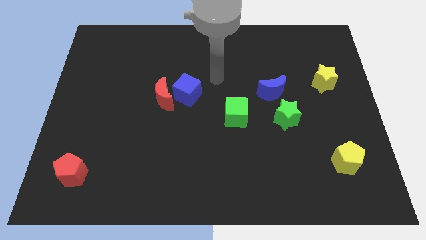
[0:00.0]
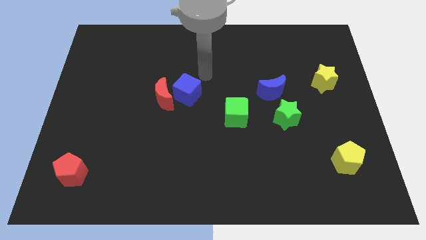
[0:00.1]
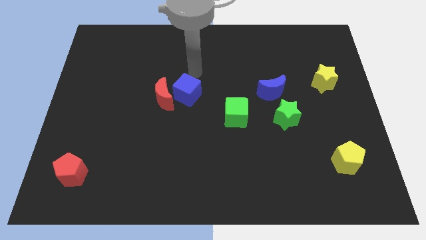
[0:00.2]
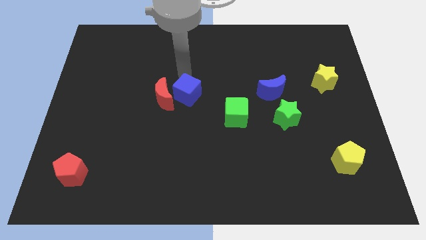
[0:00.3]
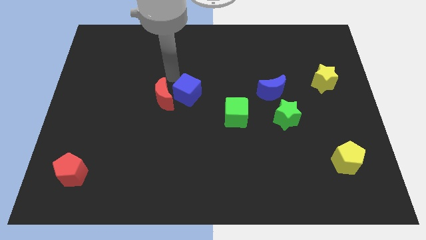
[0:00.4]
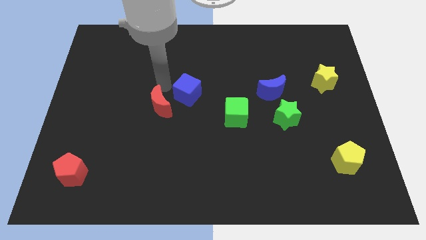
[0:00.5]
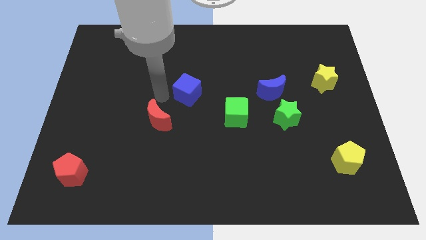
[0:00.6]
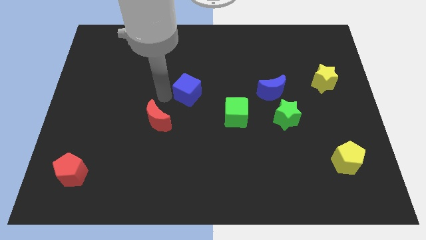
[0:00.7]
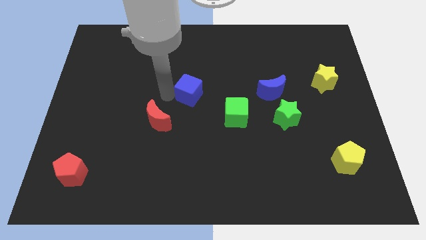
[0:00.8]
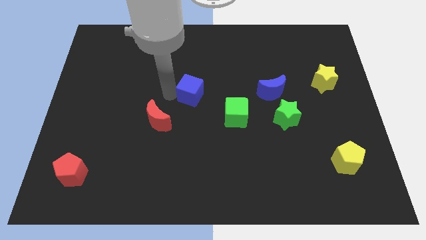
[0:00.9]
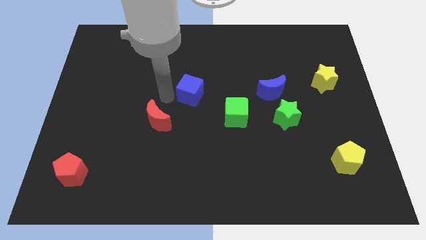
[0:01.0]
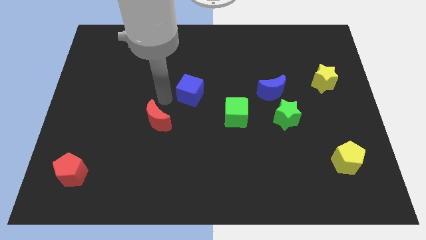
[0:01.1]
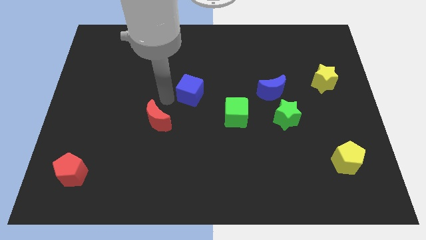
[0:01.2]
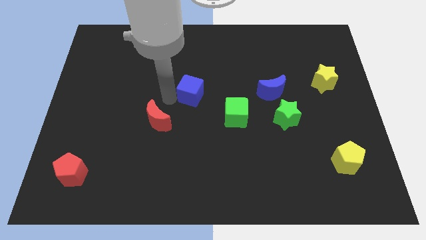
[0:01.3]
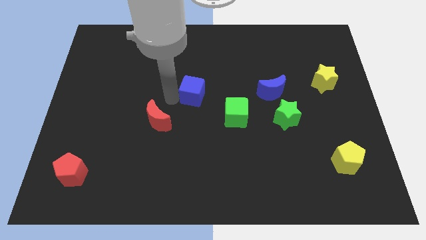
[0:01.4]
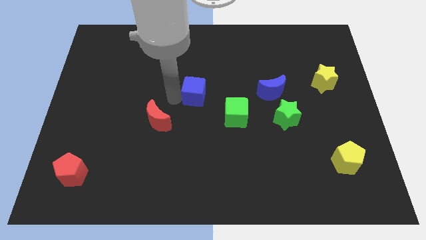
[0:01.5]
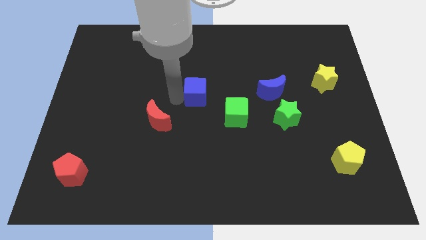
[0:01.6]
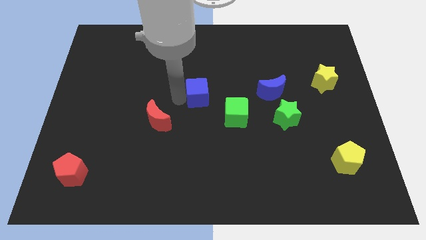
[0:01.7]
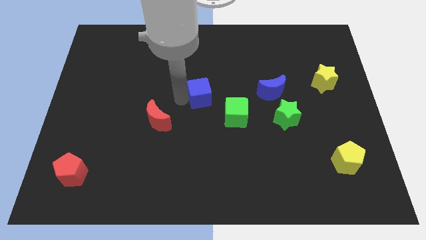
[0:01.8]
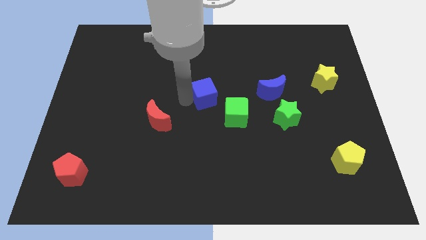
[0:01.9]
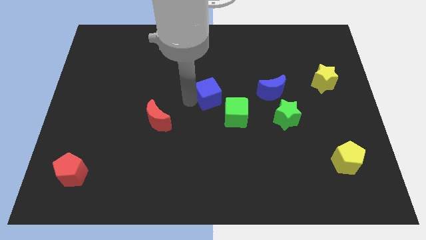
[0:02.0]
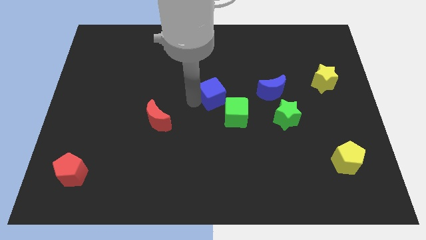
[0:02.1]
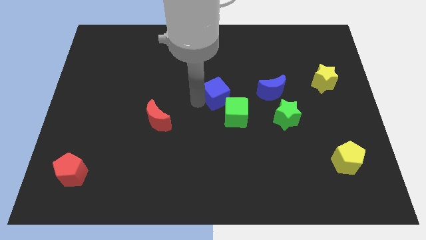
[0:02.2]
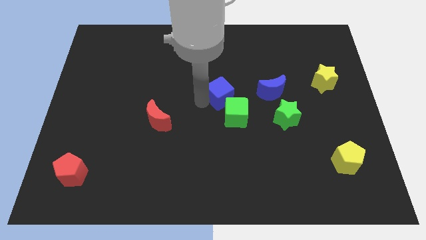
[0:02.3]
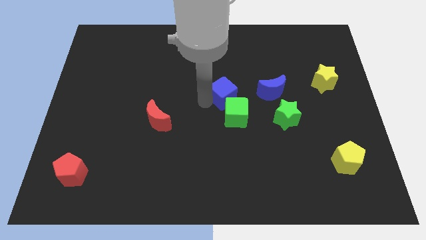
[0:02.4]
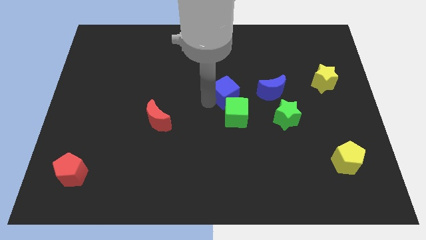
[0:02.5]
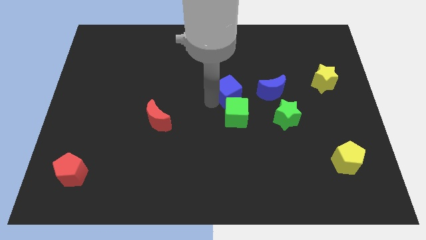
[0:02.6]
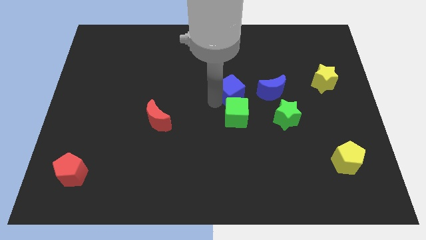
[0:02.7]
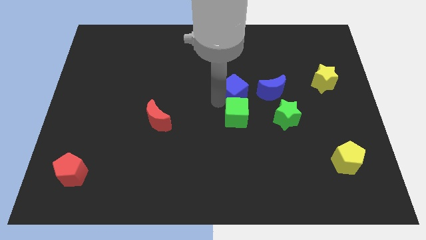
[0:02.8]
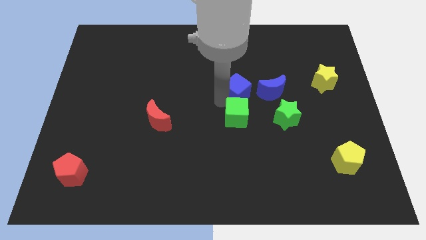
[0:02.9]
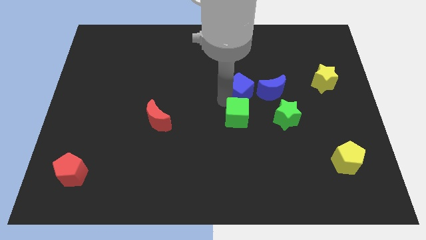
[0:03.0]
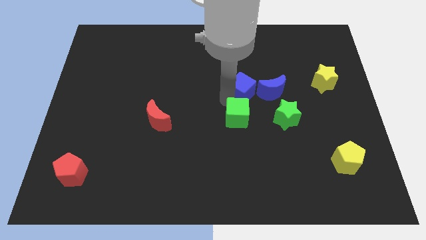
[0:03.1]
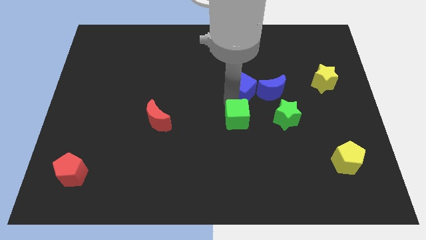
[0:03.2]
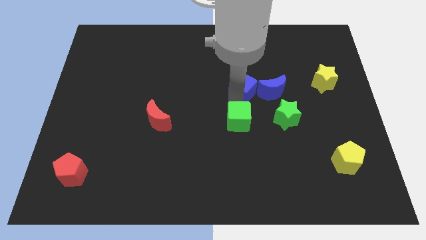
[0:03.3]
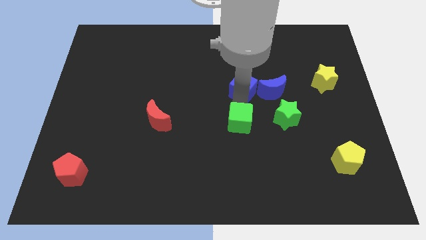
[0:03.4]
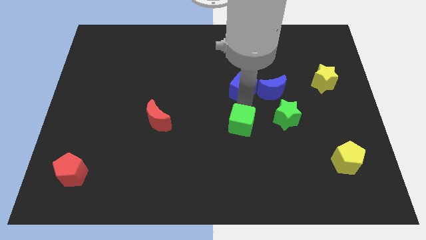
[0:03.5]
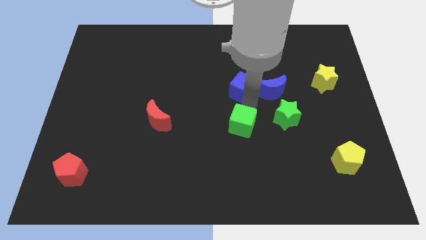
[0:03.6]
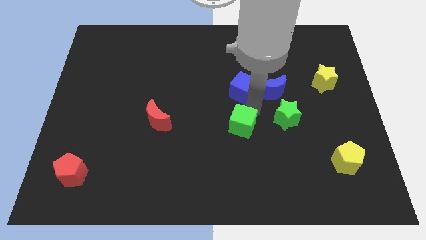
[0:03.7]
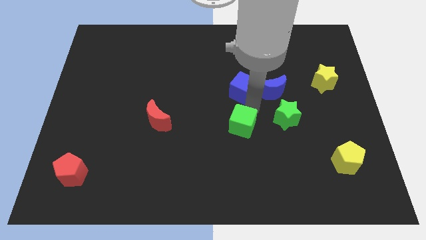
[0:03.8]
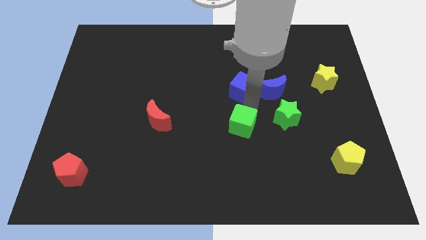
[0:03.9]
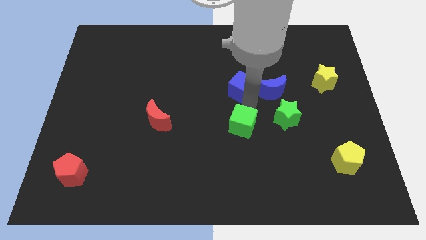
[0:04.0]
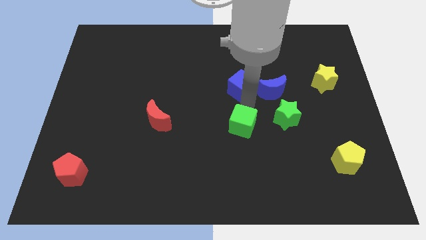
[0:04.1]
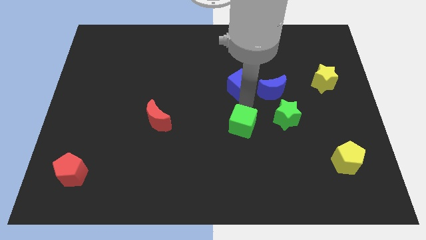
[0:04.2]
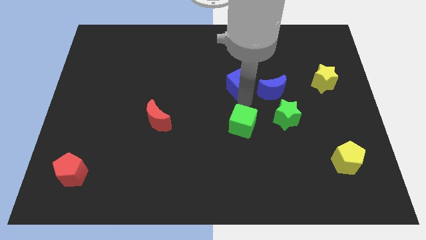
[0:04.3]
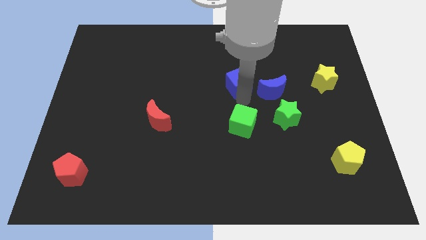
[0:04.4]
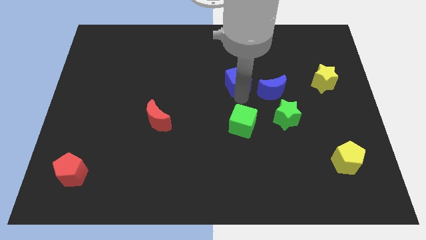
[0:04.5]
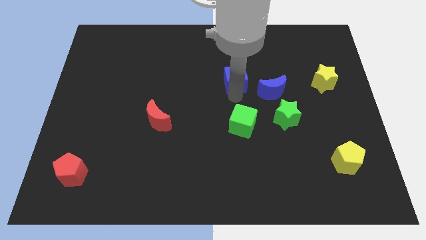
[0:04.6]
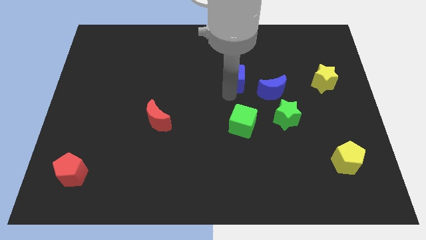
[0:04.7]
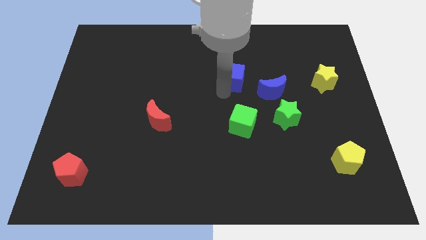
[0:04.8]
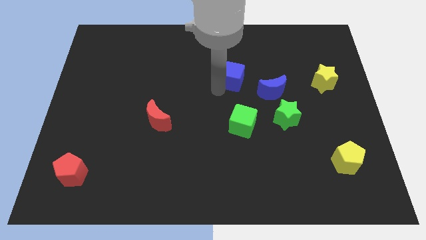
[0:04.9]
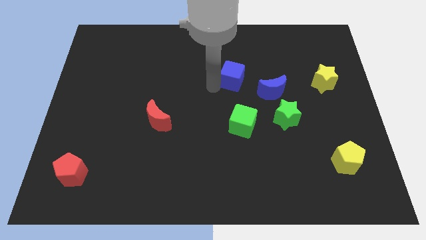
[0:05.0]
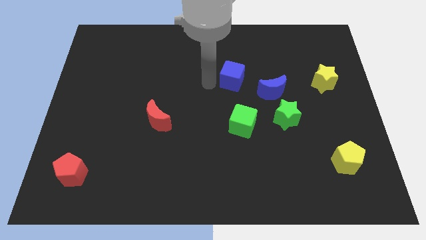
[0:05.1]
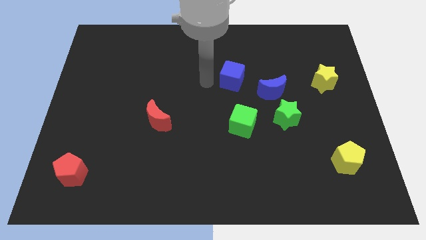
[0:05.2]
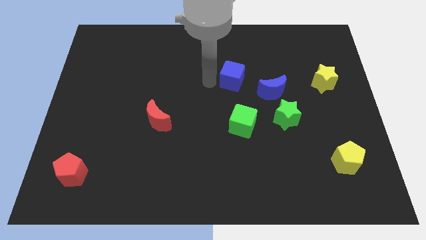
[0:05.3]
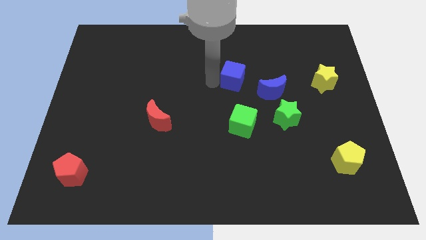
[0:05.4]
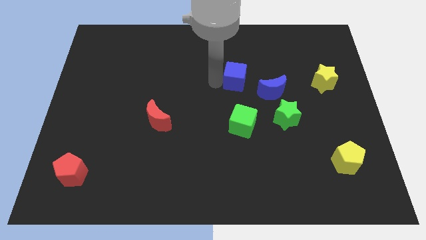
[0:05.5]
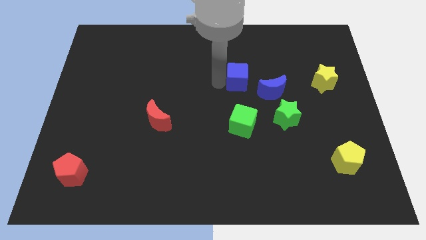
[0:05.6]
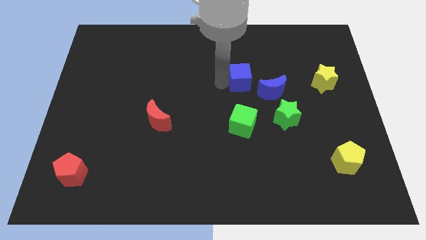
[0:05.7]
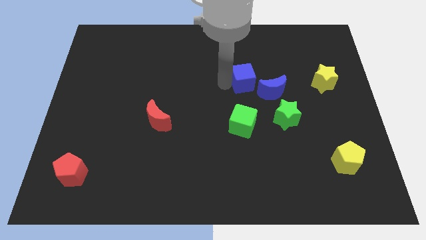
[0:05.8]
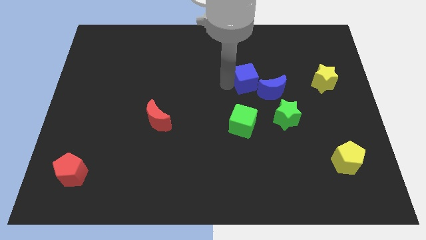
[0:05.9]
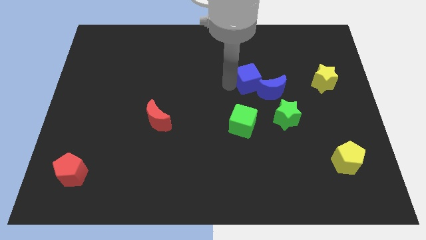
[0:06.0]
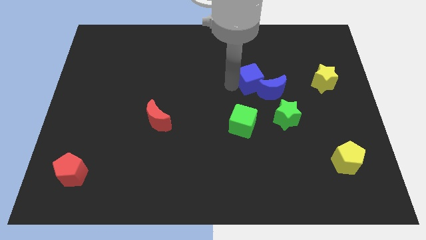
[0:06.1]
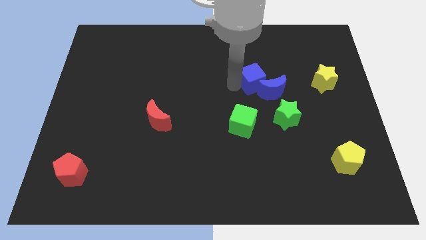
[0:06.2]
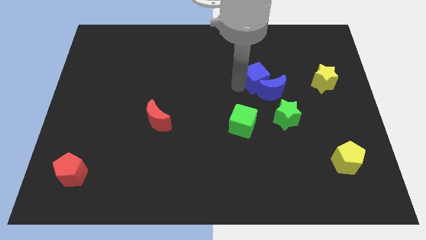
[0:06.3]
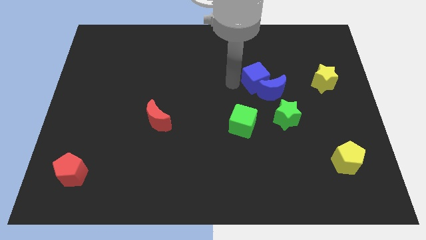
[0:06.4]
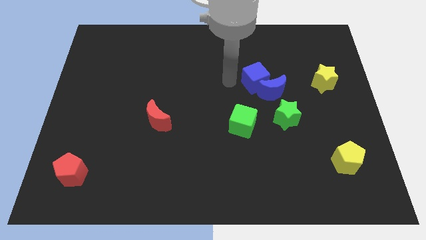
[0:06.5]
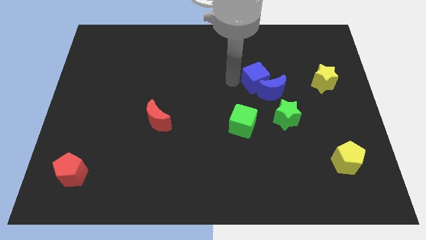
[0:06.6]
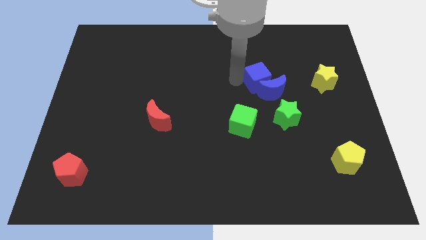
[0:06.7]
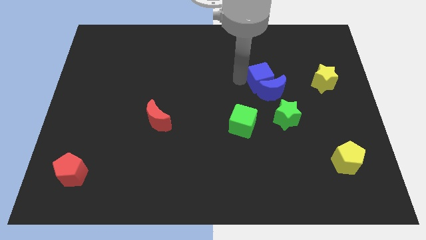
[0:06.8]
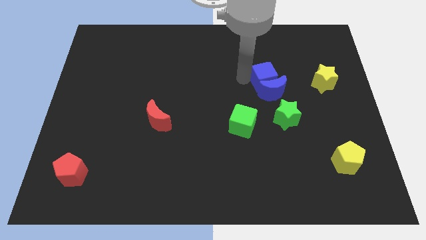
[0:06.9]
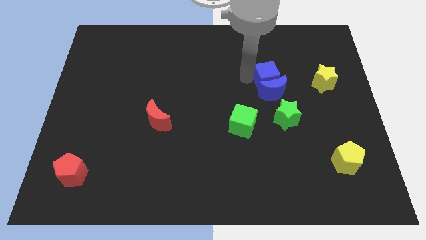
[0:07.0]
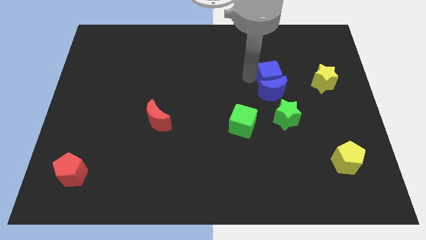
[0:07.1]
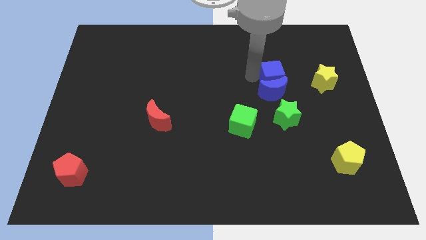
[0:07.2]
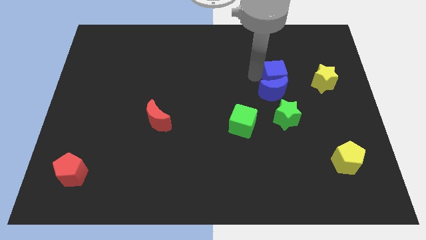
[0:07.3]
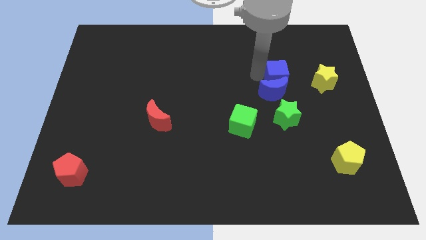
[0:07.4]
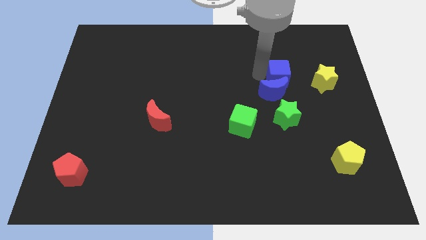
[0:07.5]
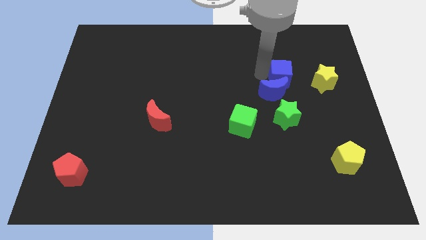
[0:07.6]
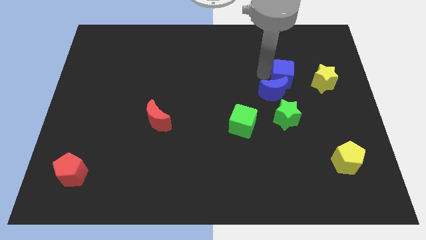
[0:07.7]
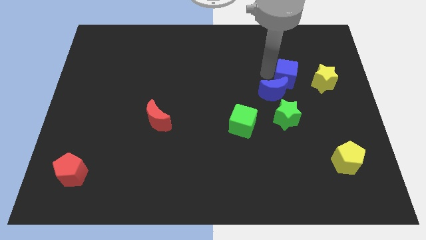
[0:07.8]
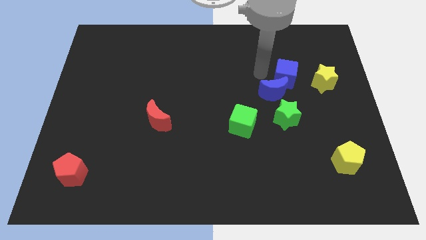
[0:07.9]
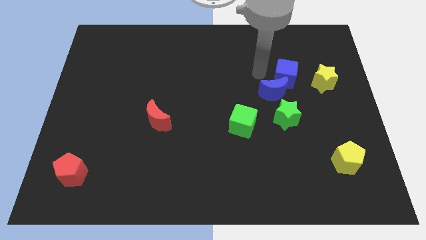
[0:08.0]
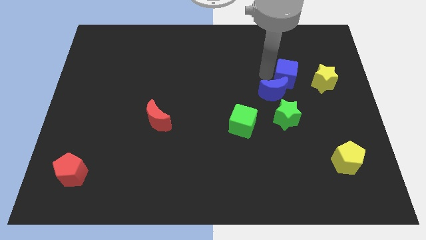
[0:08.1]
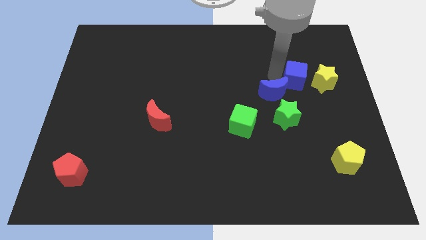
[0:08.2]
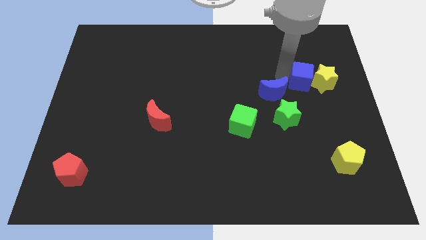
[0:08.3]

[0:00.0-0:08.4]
slide the blue cube next to the yellow star
